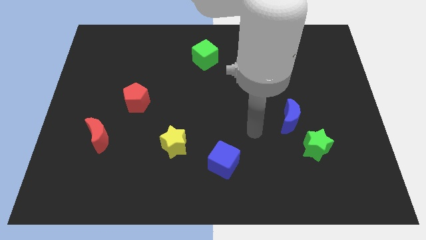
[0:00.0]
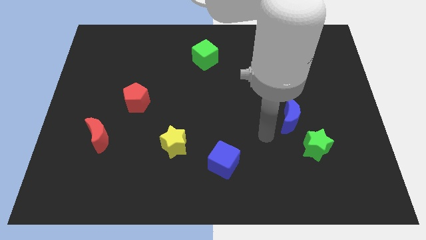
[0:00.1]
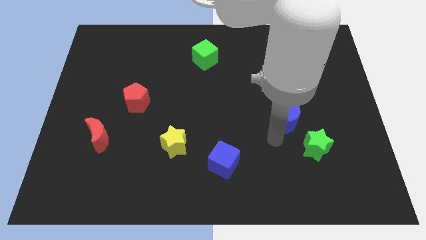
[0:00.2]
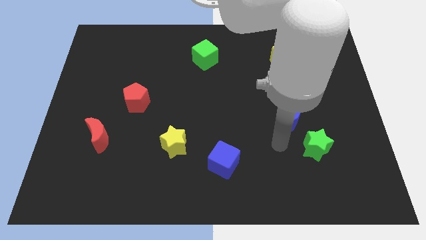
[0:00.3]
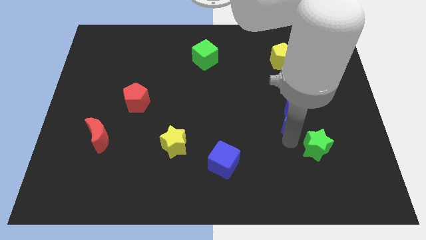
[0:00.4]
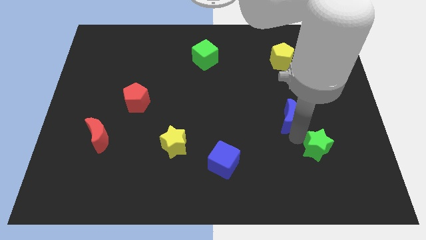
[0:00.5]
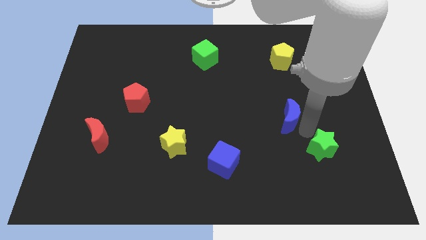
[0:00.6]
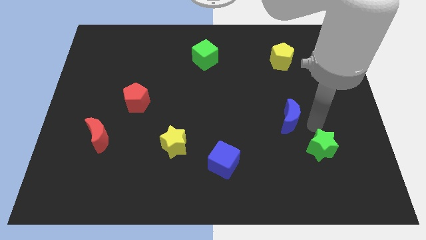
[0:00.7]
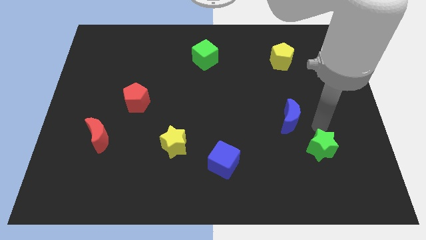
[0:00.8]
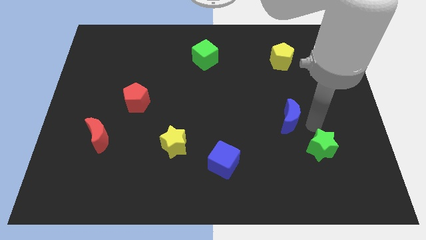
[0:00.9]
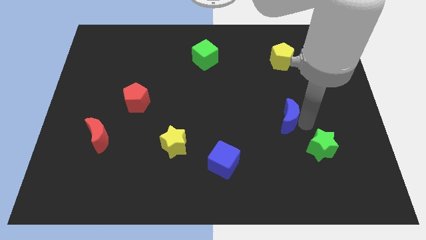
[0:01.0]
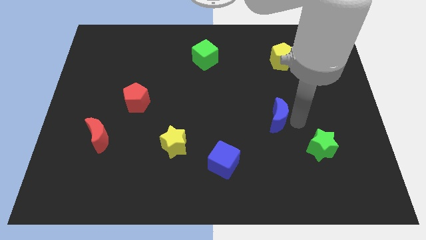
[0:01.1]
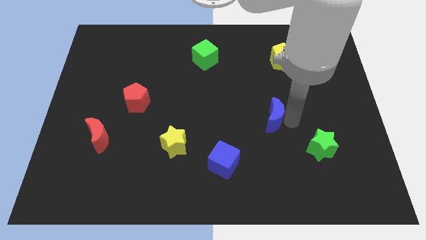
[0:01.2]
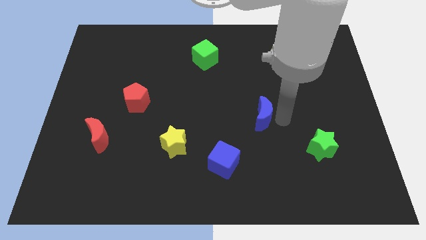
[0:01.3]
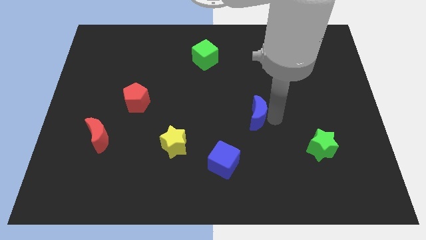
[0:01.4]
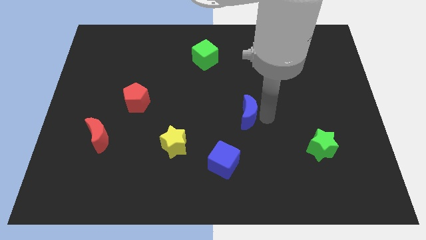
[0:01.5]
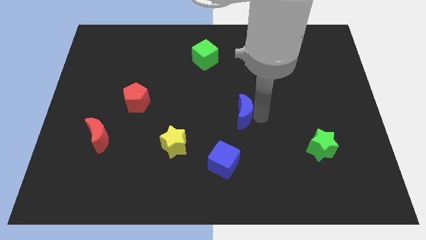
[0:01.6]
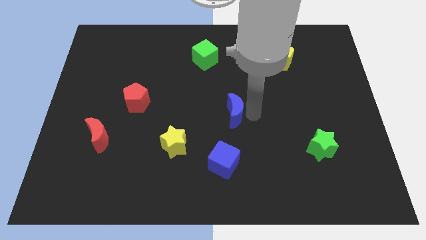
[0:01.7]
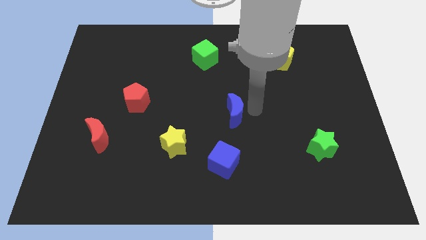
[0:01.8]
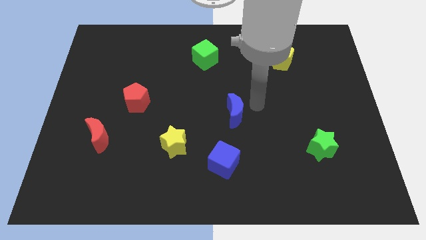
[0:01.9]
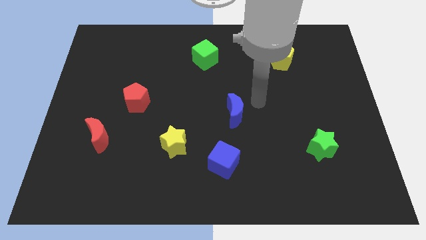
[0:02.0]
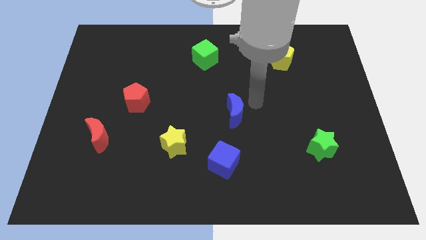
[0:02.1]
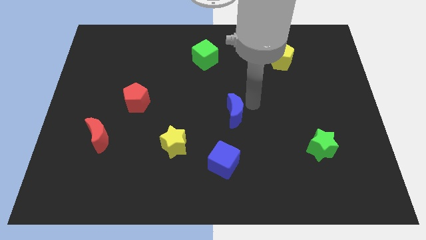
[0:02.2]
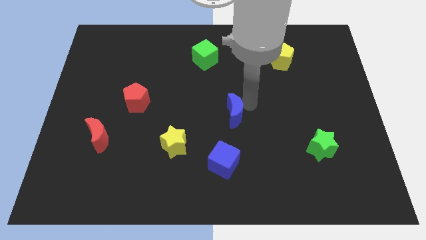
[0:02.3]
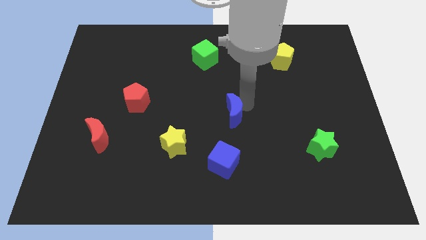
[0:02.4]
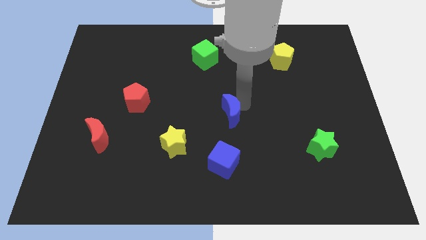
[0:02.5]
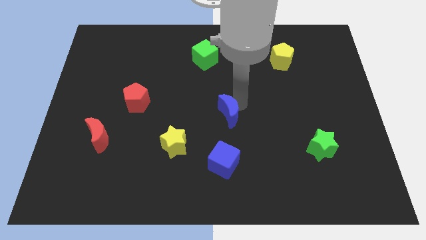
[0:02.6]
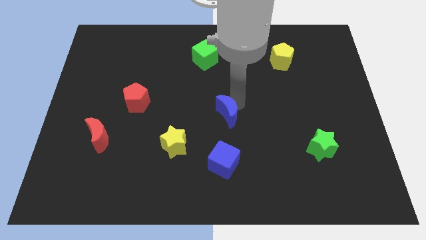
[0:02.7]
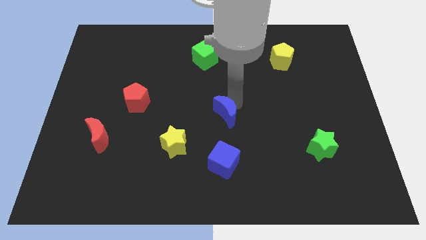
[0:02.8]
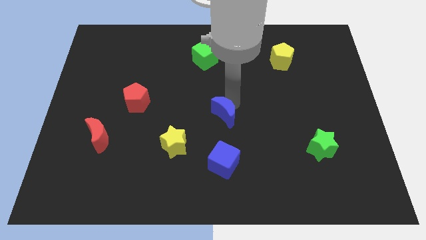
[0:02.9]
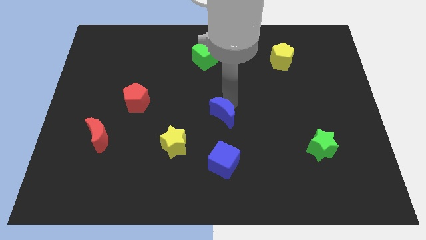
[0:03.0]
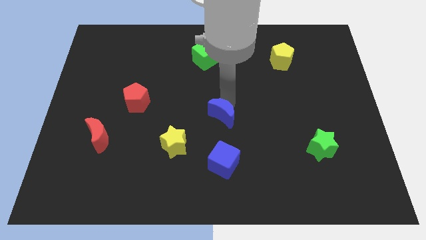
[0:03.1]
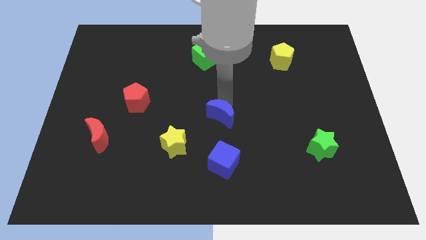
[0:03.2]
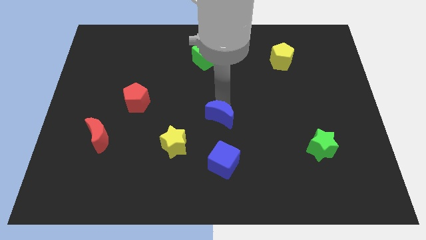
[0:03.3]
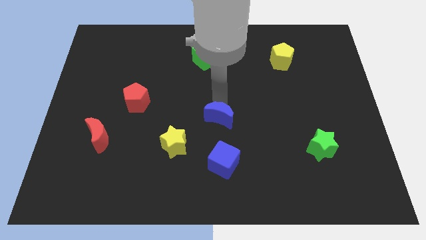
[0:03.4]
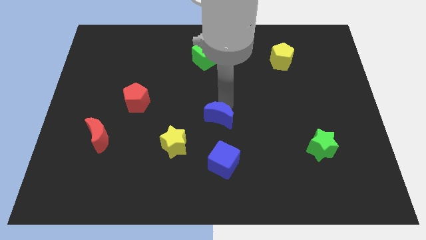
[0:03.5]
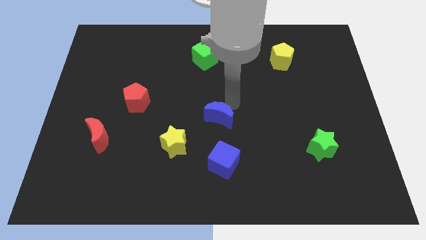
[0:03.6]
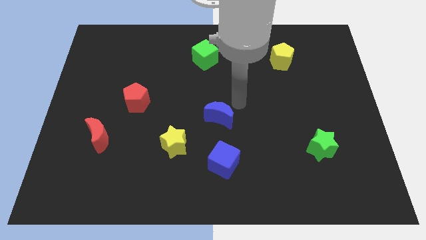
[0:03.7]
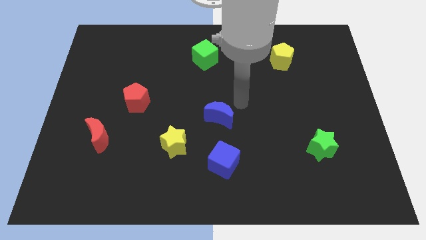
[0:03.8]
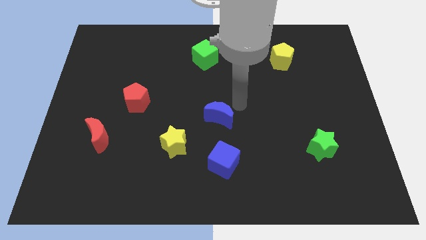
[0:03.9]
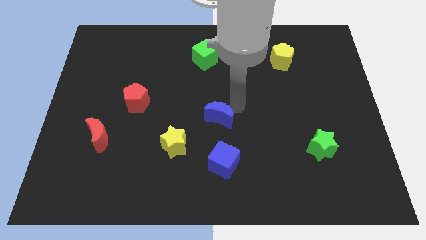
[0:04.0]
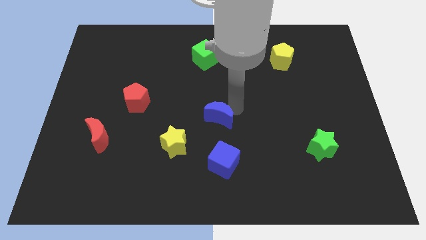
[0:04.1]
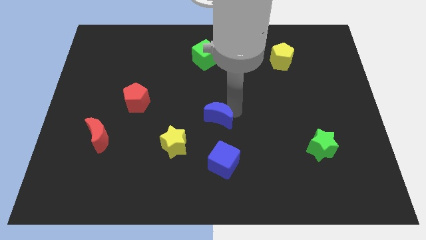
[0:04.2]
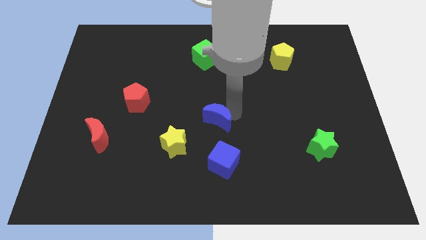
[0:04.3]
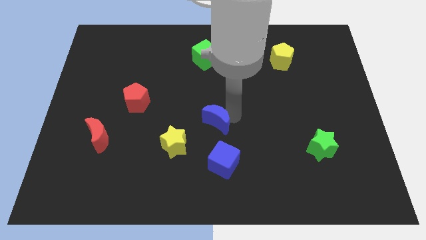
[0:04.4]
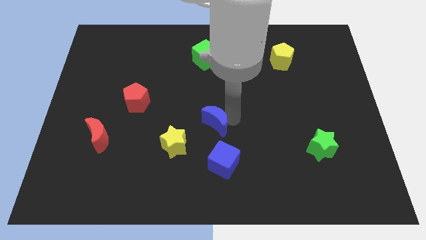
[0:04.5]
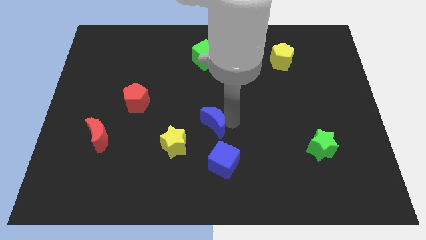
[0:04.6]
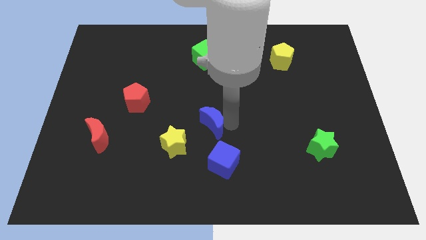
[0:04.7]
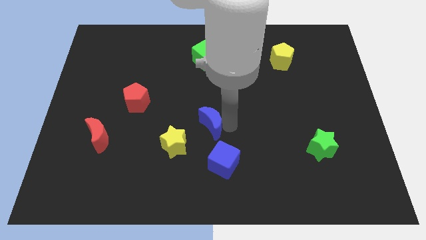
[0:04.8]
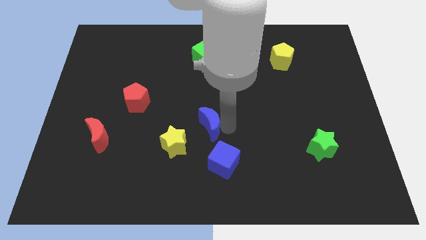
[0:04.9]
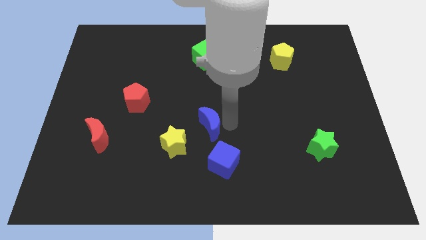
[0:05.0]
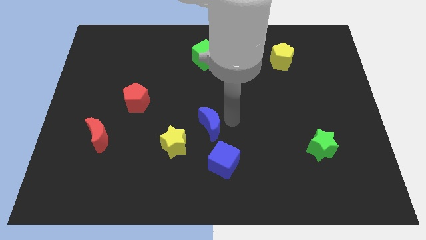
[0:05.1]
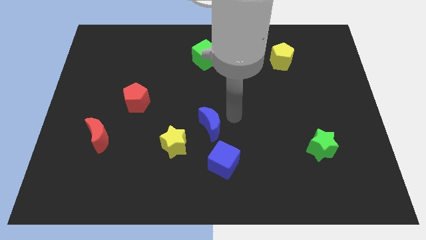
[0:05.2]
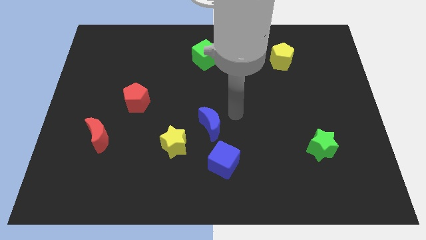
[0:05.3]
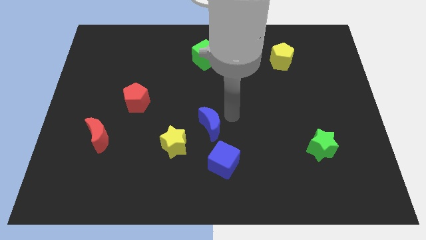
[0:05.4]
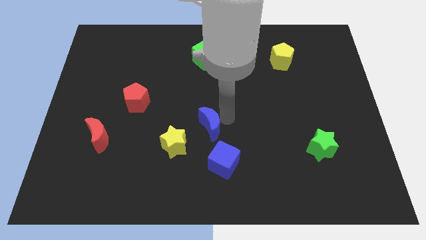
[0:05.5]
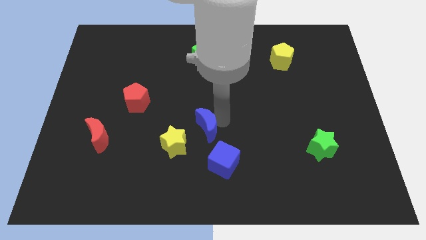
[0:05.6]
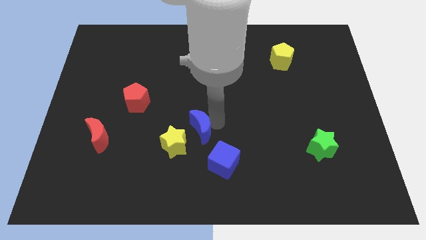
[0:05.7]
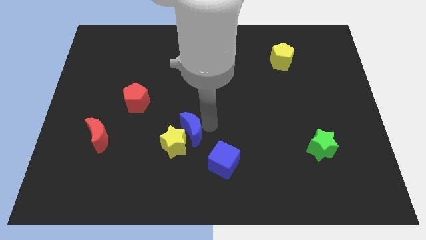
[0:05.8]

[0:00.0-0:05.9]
put the blue moon next to the yellow star

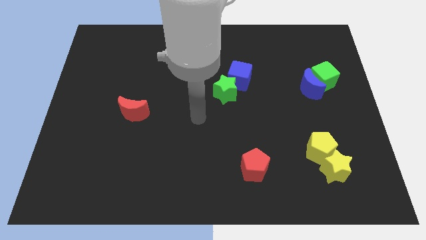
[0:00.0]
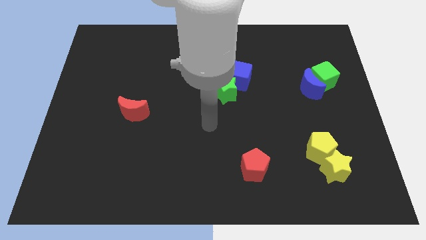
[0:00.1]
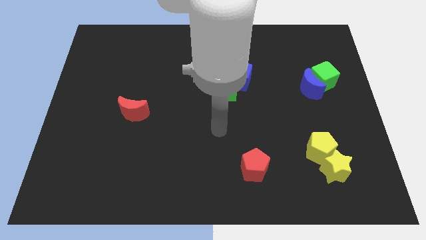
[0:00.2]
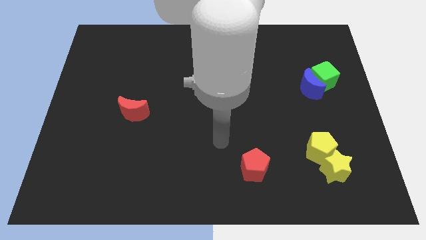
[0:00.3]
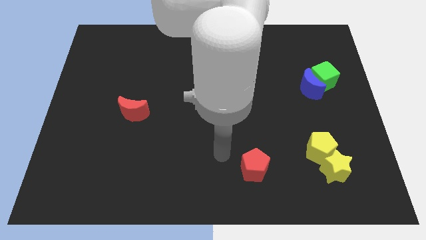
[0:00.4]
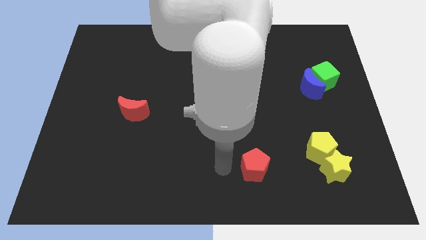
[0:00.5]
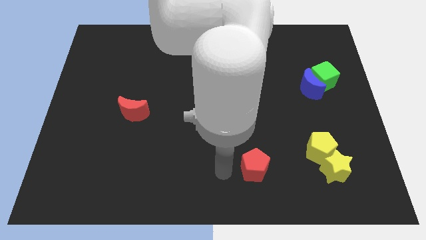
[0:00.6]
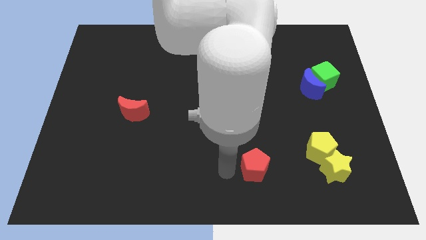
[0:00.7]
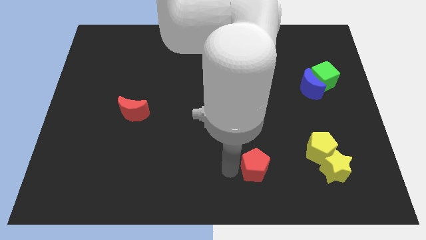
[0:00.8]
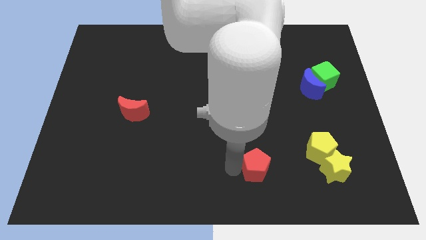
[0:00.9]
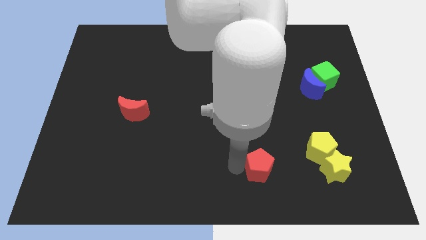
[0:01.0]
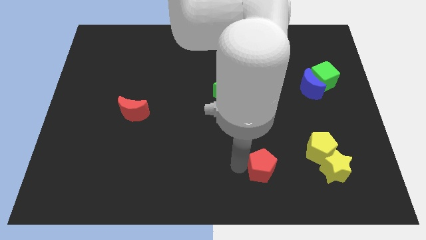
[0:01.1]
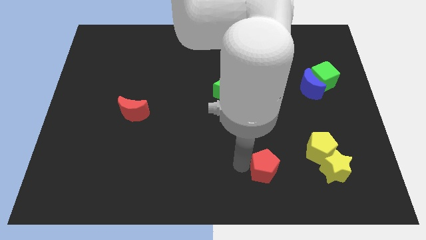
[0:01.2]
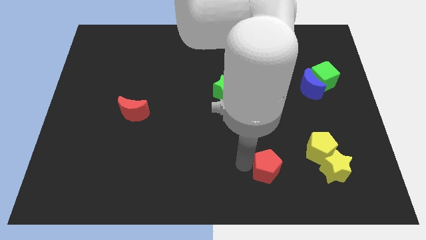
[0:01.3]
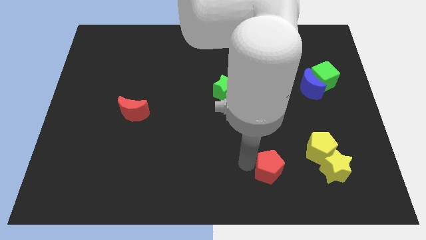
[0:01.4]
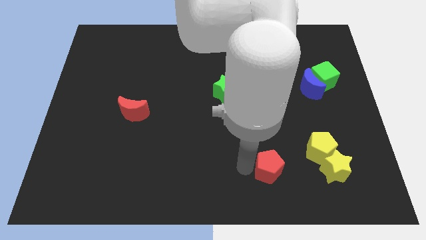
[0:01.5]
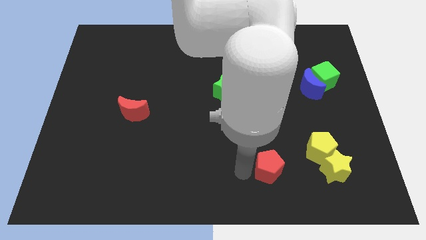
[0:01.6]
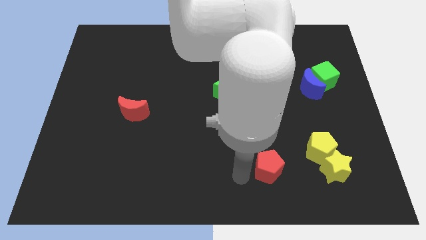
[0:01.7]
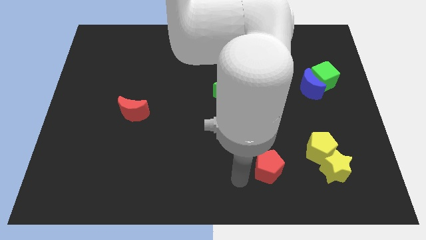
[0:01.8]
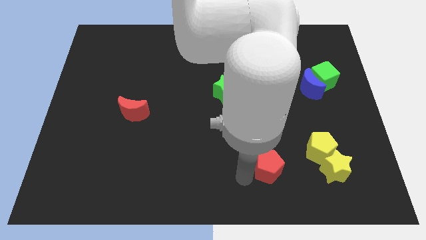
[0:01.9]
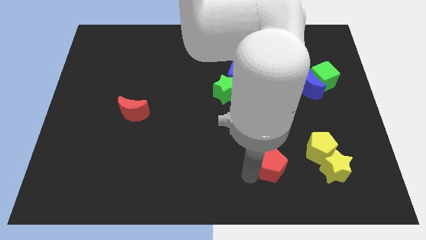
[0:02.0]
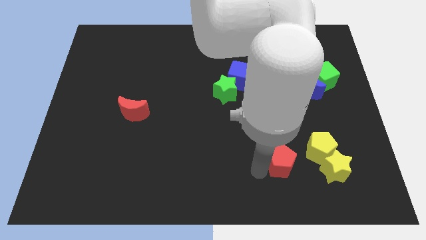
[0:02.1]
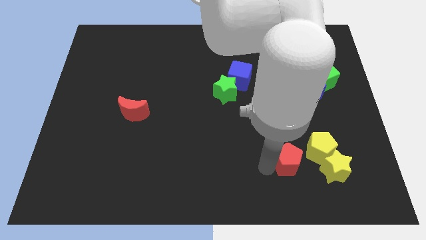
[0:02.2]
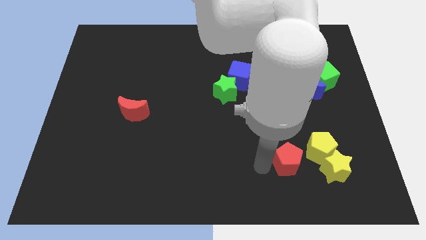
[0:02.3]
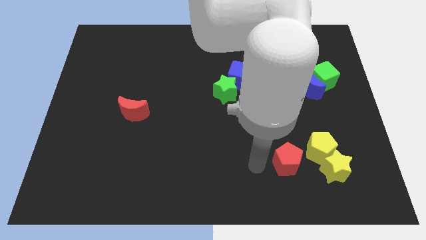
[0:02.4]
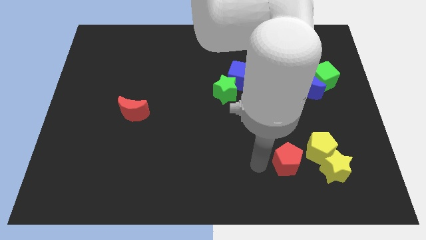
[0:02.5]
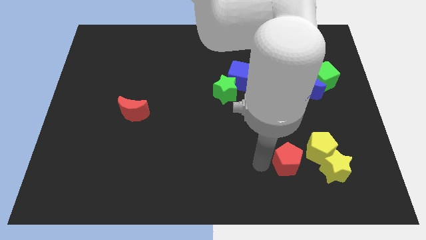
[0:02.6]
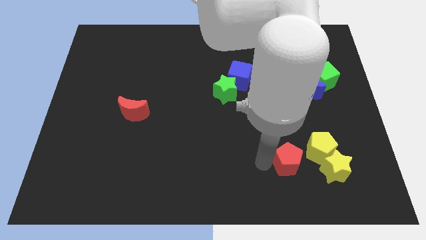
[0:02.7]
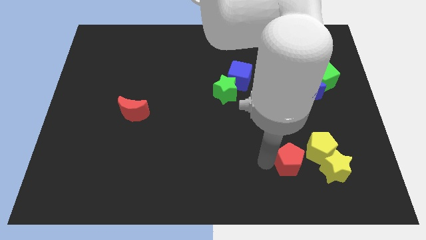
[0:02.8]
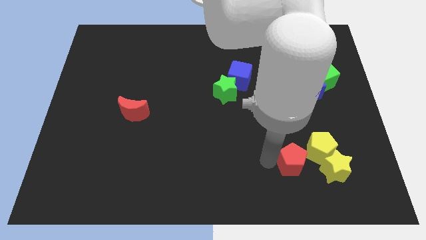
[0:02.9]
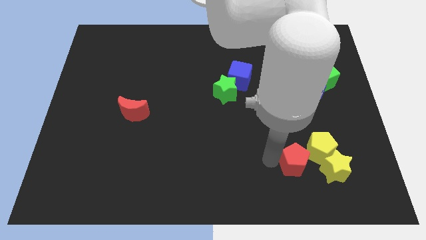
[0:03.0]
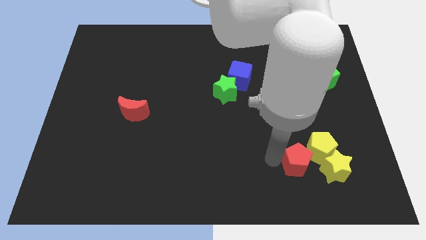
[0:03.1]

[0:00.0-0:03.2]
put the red pentagon to the yellow pentagon
